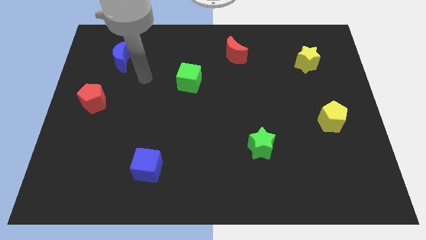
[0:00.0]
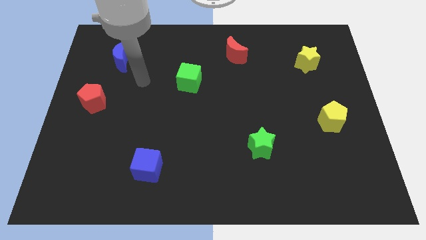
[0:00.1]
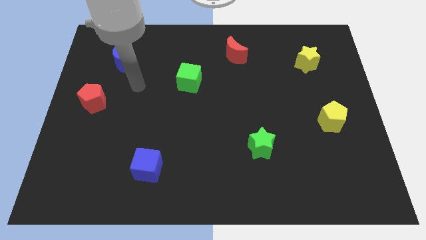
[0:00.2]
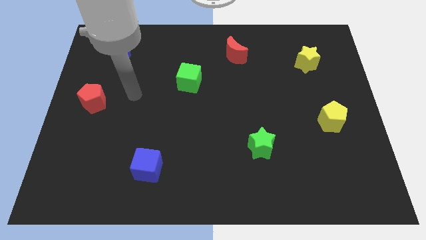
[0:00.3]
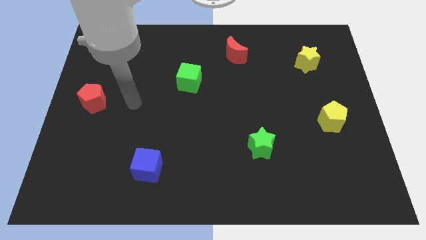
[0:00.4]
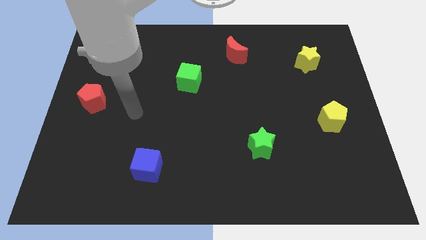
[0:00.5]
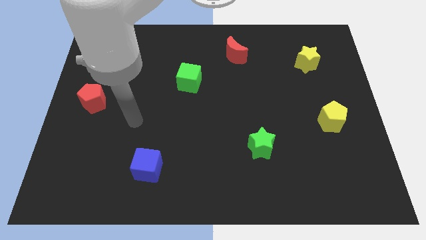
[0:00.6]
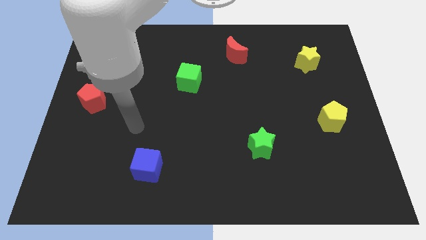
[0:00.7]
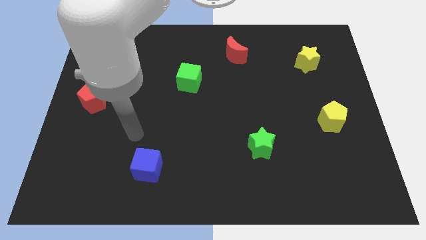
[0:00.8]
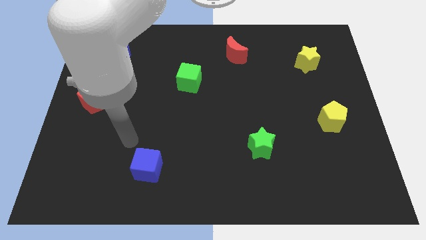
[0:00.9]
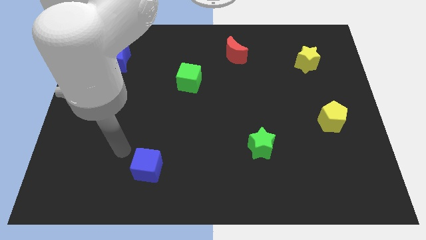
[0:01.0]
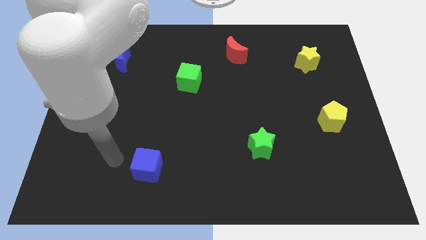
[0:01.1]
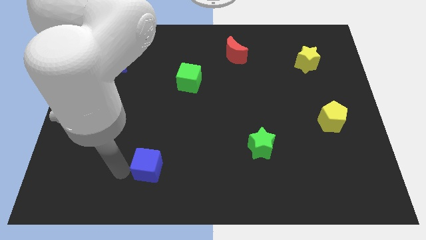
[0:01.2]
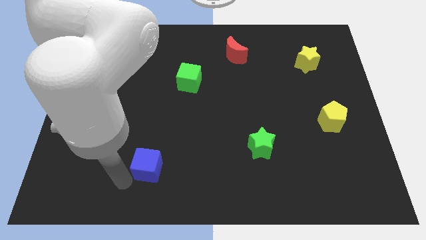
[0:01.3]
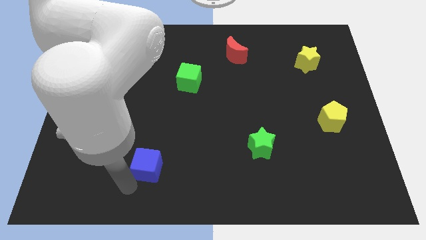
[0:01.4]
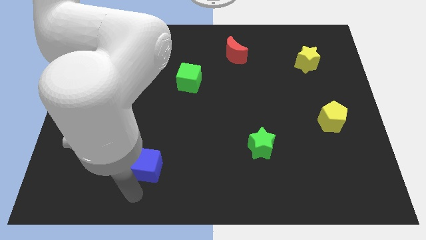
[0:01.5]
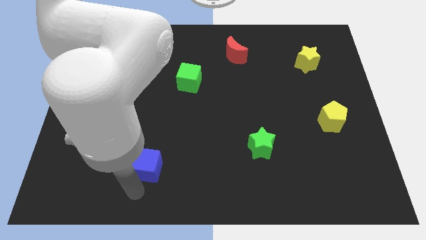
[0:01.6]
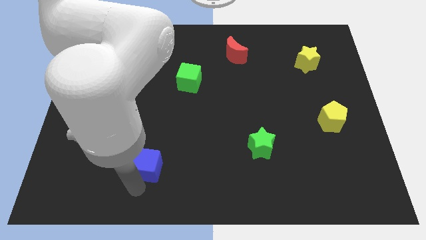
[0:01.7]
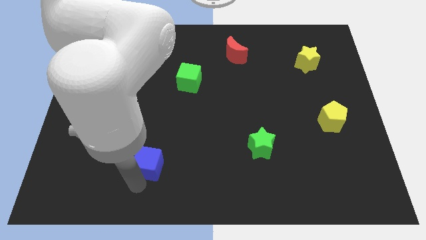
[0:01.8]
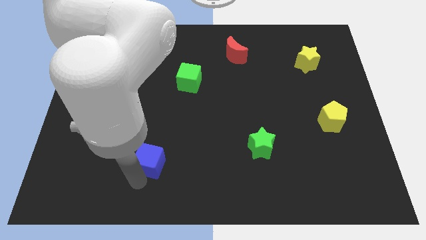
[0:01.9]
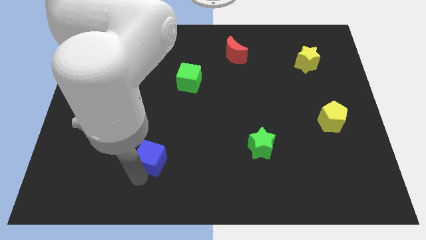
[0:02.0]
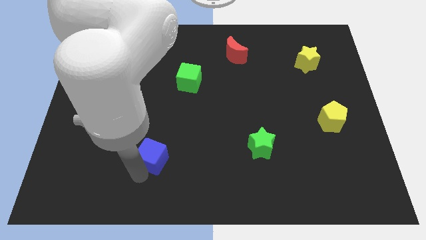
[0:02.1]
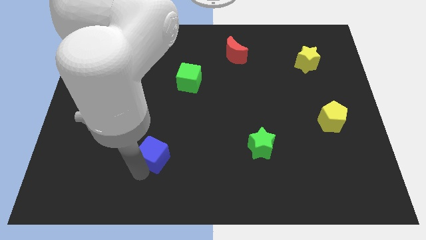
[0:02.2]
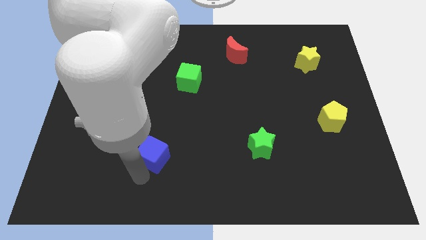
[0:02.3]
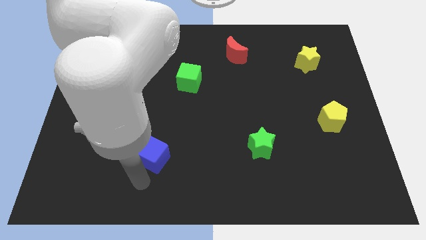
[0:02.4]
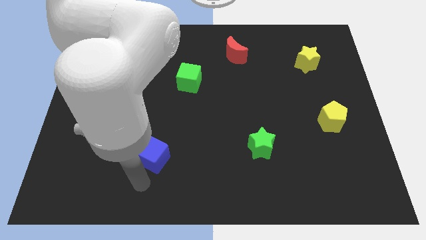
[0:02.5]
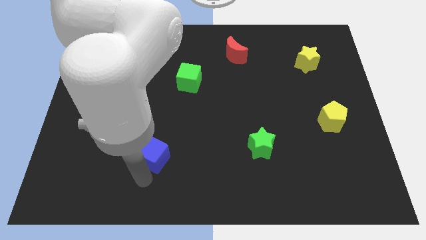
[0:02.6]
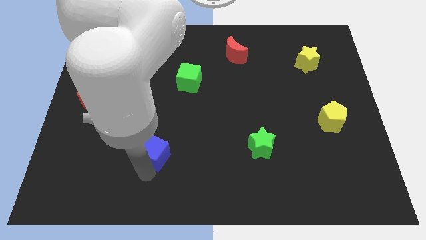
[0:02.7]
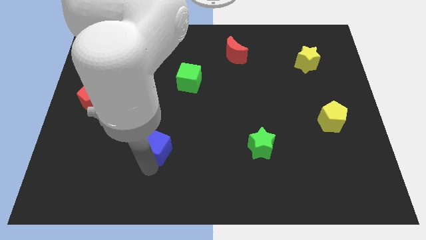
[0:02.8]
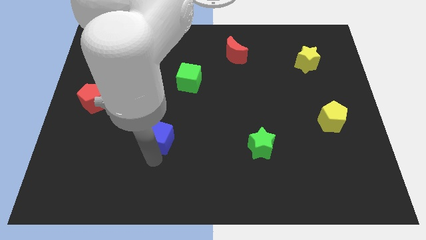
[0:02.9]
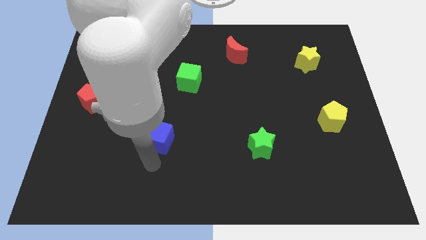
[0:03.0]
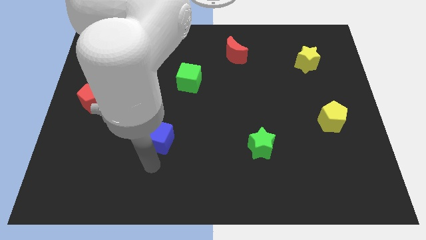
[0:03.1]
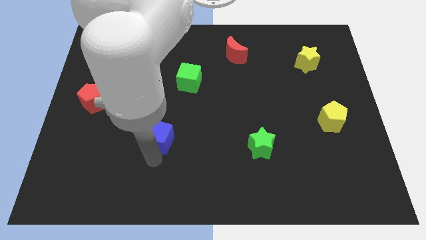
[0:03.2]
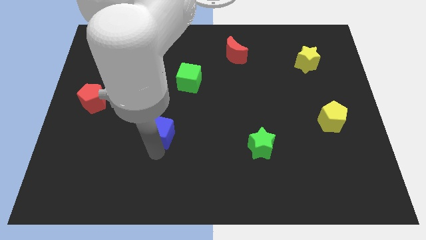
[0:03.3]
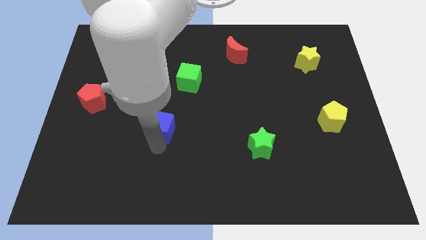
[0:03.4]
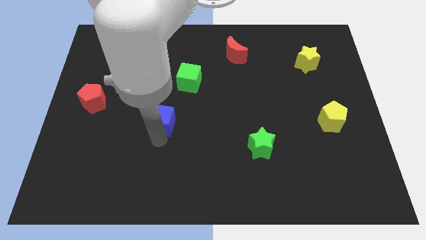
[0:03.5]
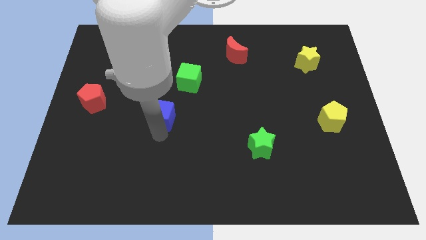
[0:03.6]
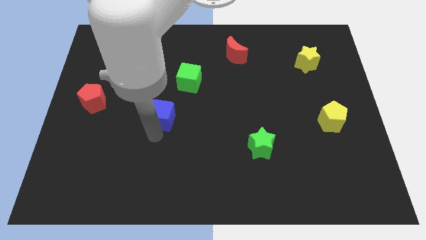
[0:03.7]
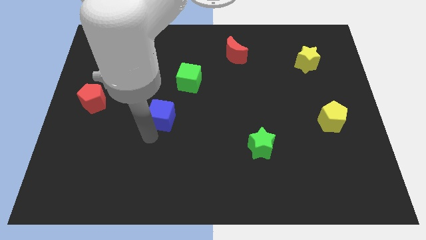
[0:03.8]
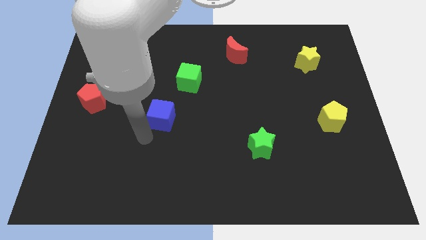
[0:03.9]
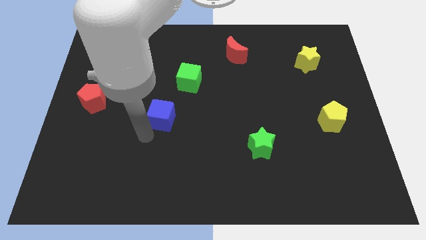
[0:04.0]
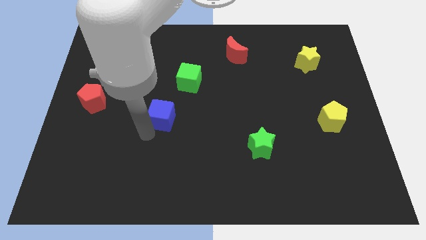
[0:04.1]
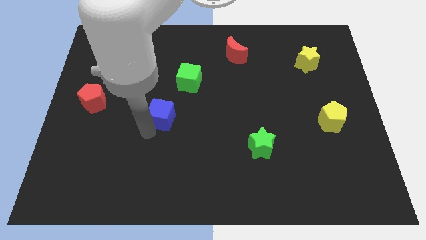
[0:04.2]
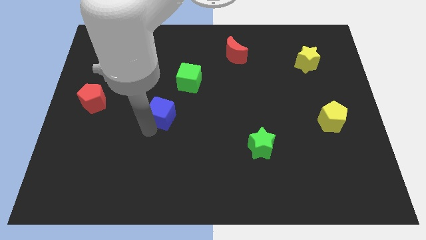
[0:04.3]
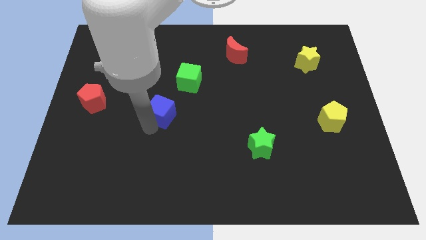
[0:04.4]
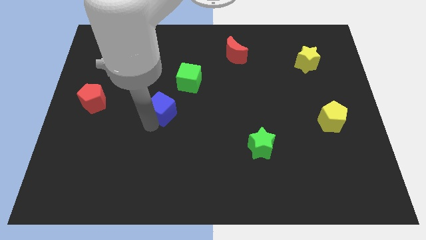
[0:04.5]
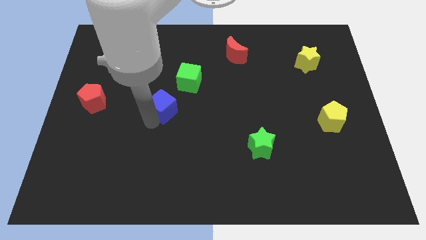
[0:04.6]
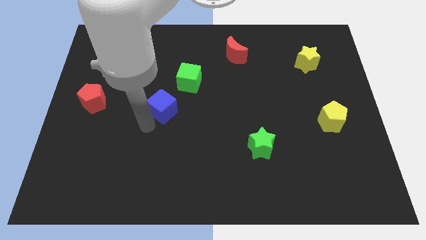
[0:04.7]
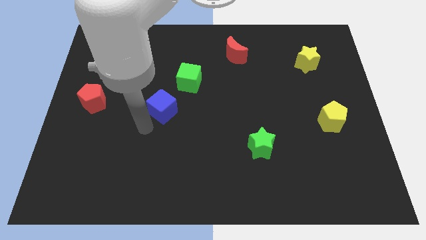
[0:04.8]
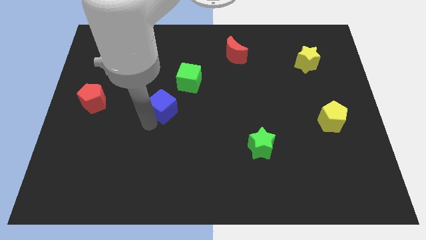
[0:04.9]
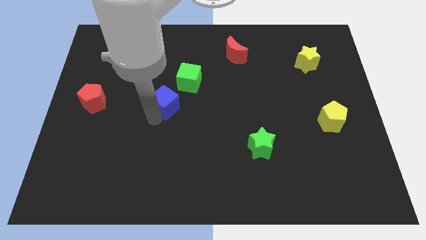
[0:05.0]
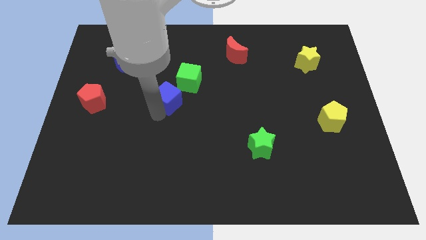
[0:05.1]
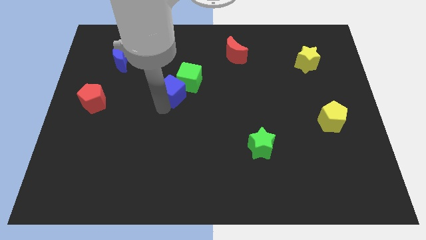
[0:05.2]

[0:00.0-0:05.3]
slide the blue cube next to the green cube

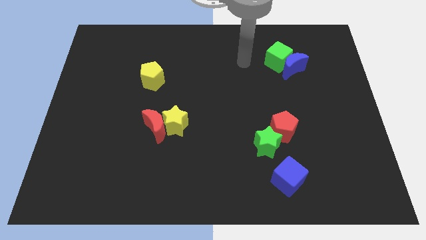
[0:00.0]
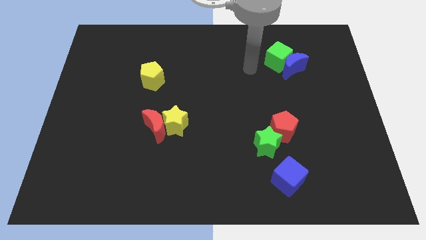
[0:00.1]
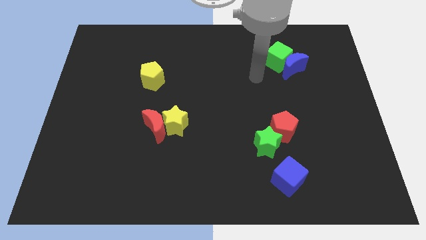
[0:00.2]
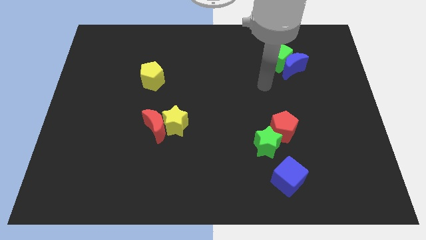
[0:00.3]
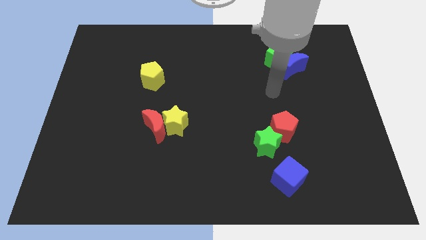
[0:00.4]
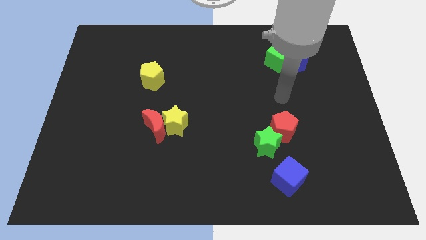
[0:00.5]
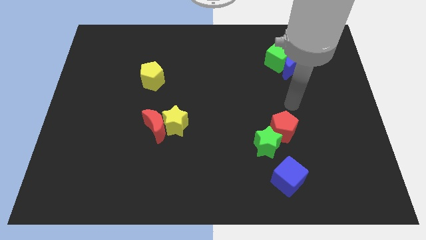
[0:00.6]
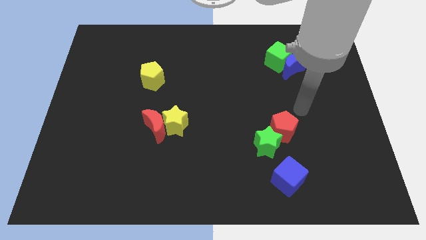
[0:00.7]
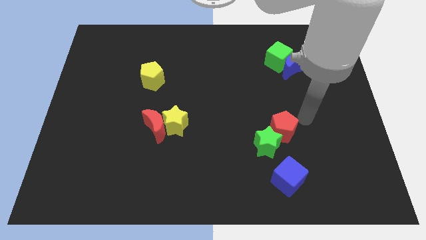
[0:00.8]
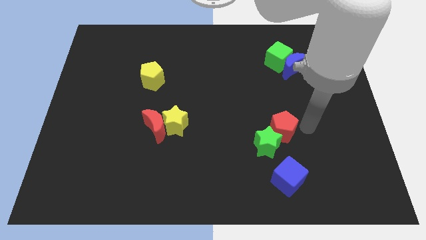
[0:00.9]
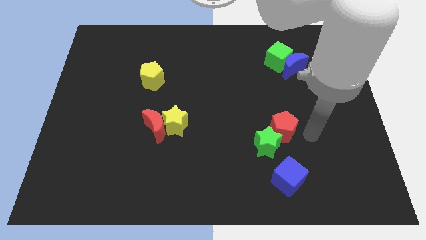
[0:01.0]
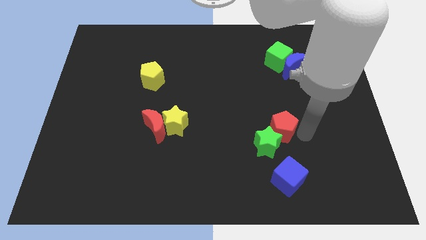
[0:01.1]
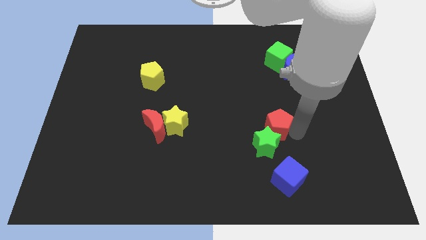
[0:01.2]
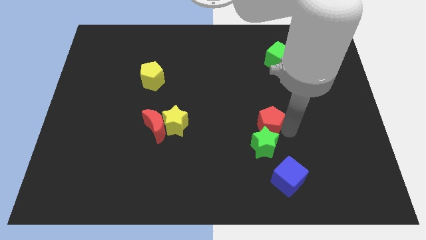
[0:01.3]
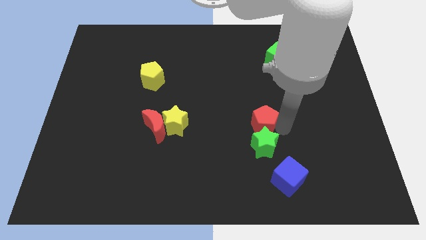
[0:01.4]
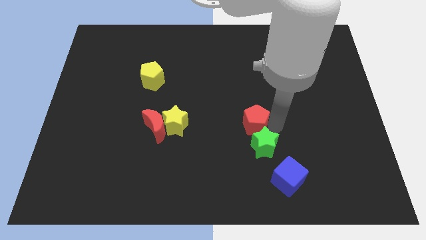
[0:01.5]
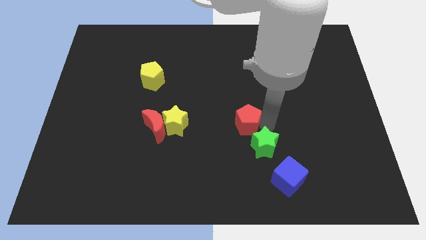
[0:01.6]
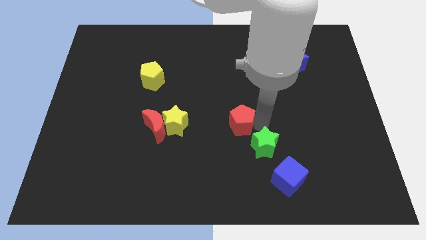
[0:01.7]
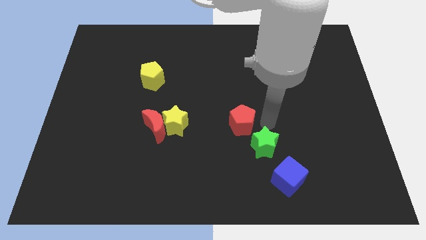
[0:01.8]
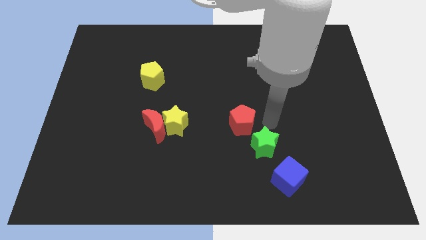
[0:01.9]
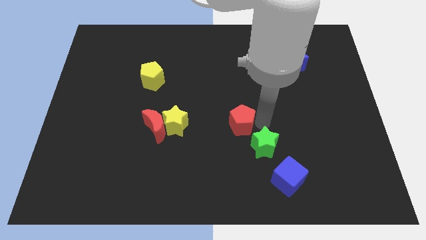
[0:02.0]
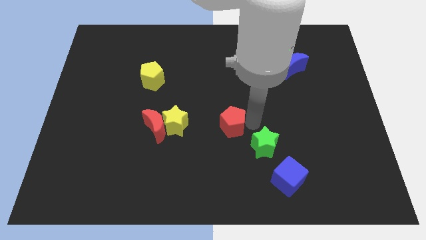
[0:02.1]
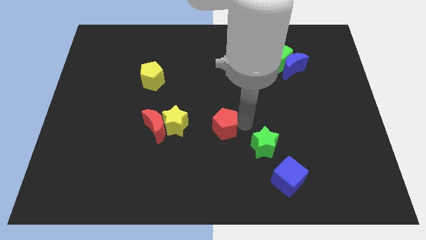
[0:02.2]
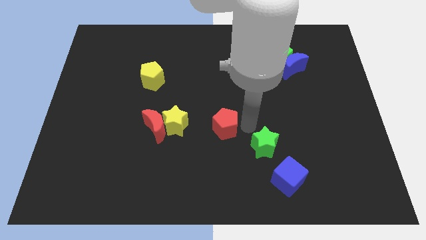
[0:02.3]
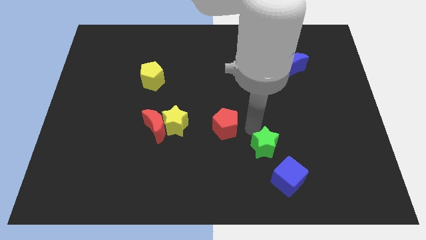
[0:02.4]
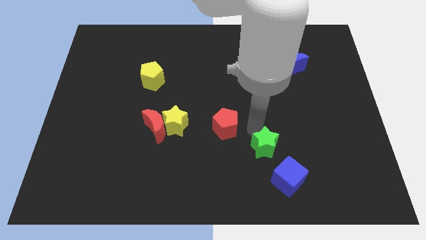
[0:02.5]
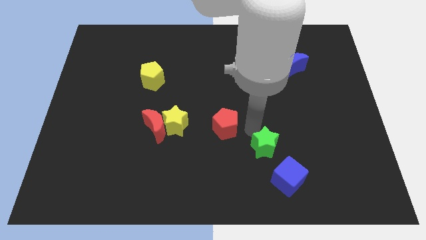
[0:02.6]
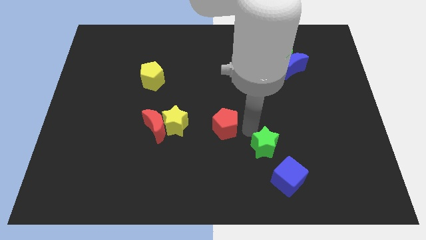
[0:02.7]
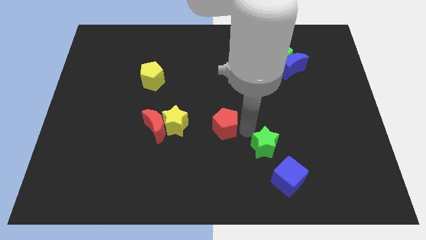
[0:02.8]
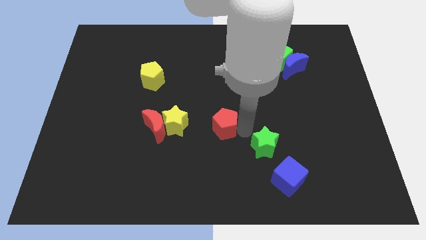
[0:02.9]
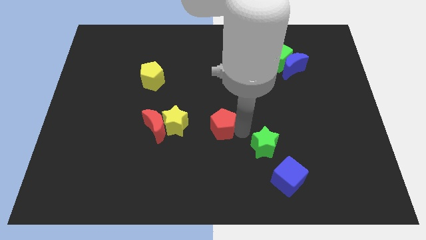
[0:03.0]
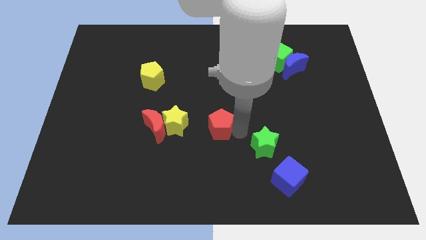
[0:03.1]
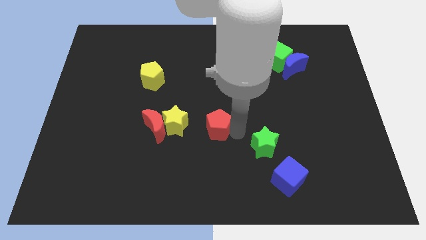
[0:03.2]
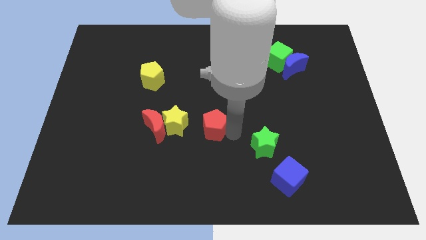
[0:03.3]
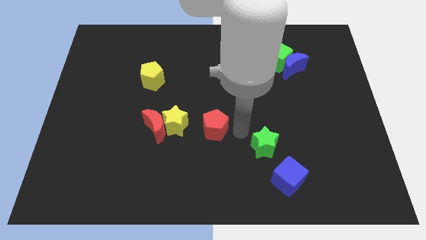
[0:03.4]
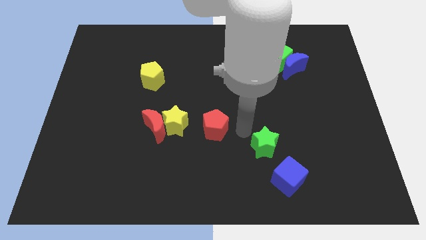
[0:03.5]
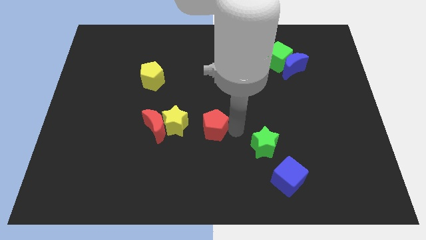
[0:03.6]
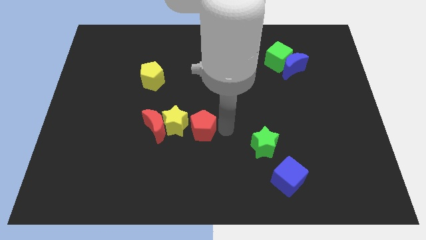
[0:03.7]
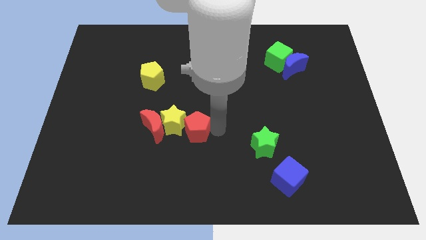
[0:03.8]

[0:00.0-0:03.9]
move the red pentagon next to the yellow star
